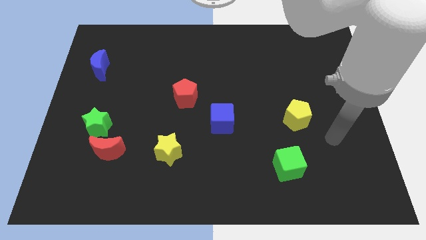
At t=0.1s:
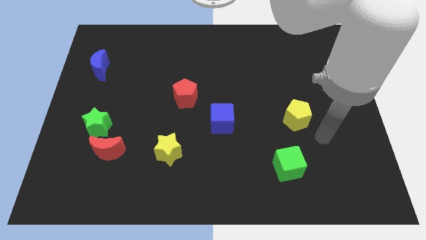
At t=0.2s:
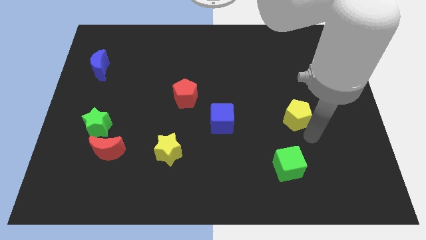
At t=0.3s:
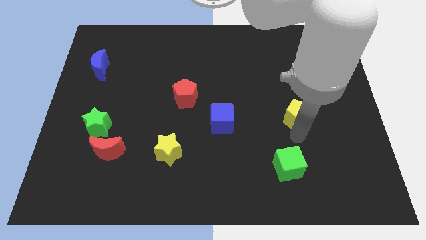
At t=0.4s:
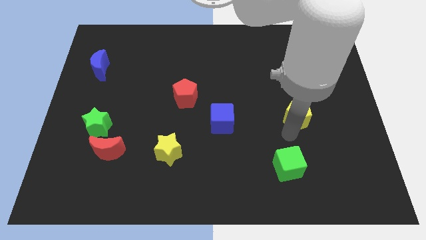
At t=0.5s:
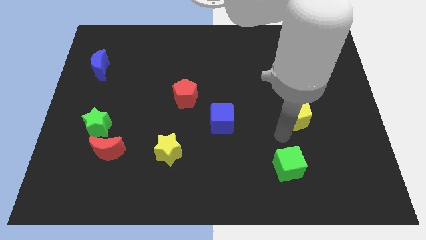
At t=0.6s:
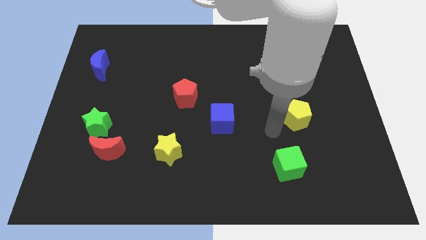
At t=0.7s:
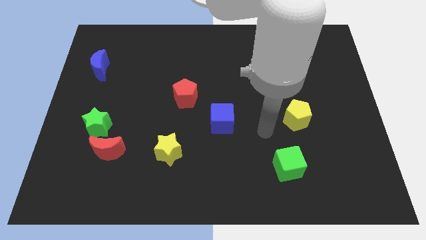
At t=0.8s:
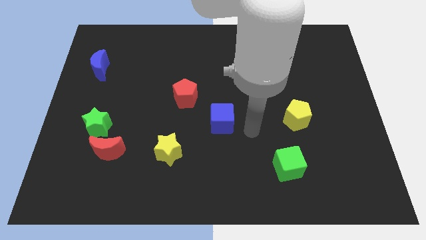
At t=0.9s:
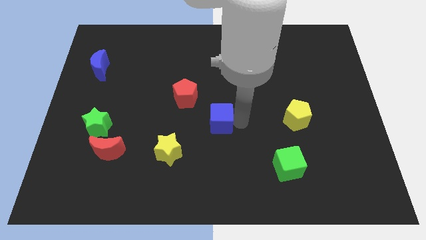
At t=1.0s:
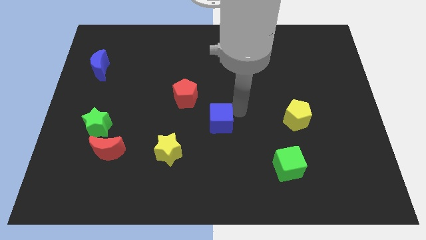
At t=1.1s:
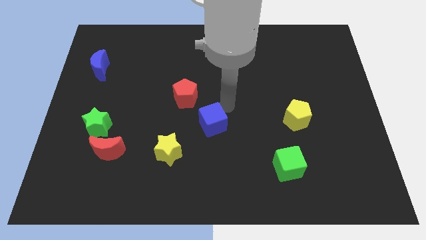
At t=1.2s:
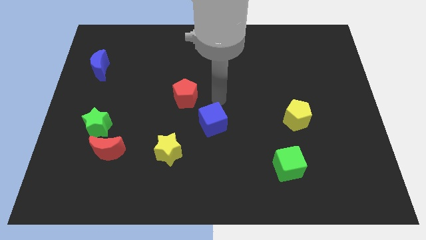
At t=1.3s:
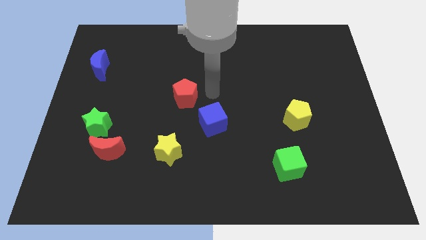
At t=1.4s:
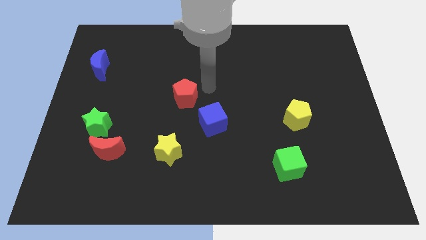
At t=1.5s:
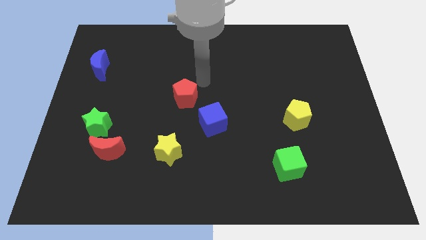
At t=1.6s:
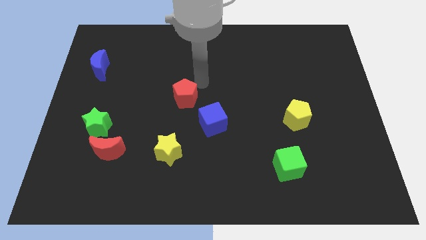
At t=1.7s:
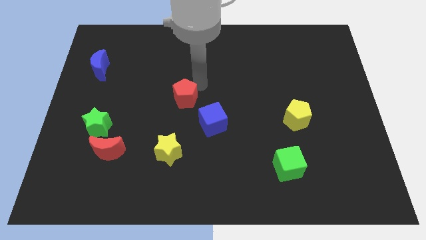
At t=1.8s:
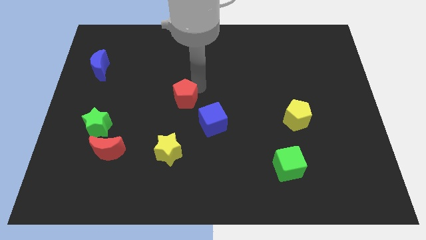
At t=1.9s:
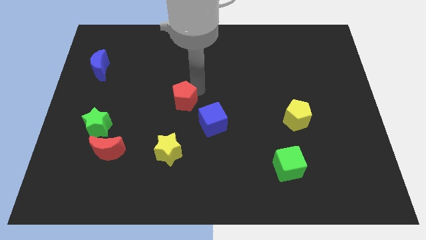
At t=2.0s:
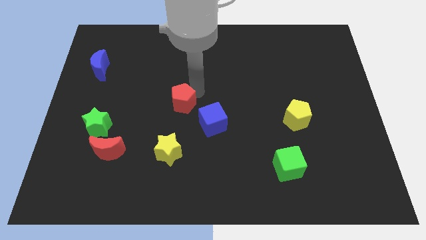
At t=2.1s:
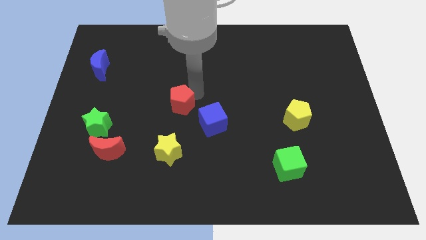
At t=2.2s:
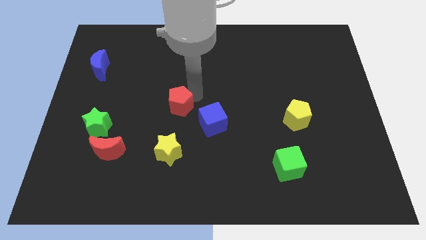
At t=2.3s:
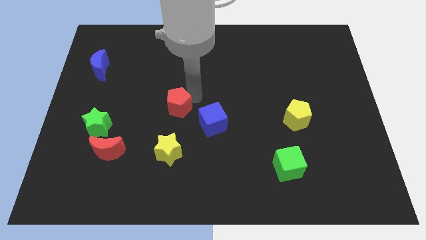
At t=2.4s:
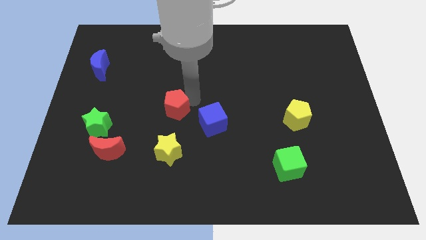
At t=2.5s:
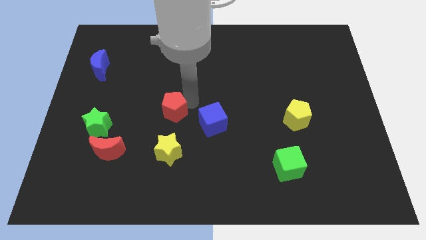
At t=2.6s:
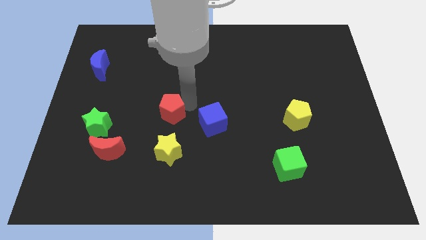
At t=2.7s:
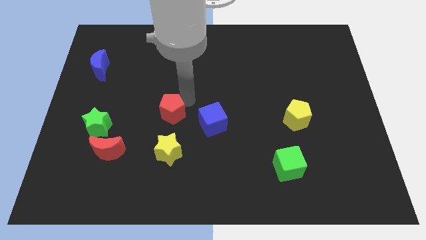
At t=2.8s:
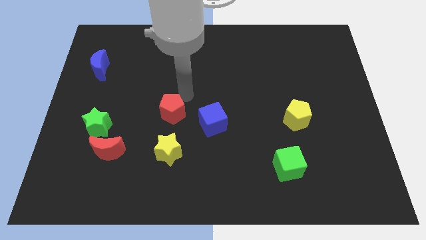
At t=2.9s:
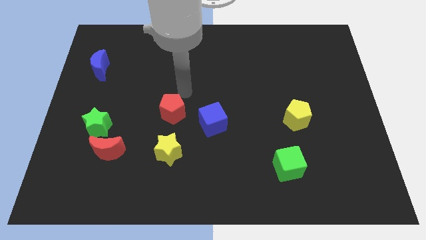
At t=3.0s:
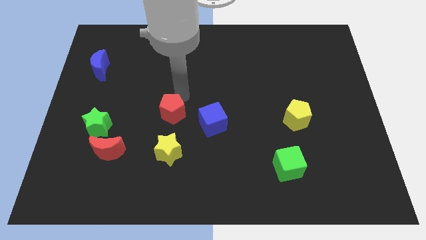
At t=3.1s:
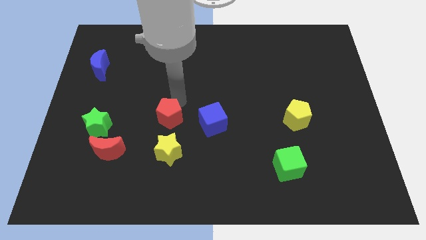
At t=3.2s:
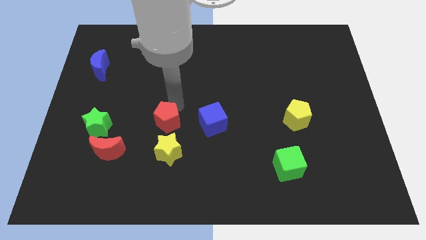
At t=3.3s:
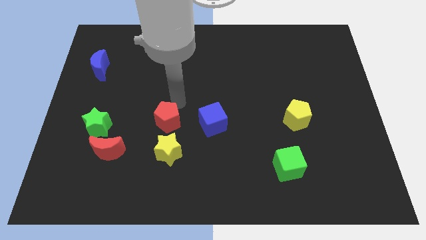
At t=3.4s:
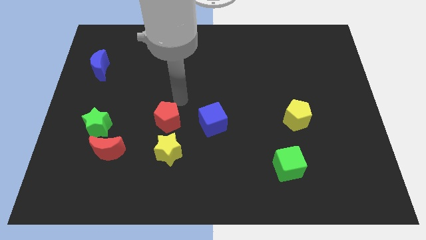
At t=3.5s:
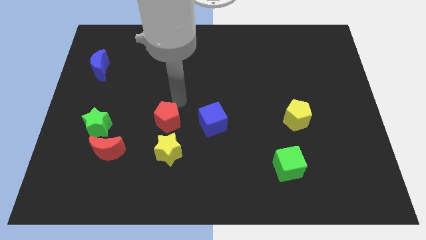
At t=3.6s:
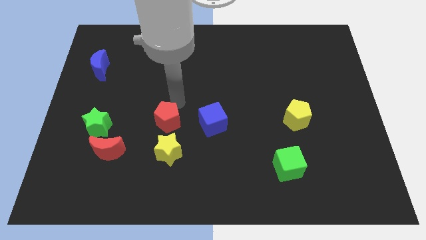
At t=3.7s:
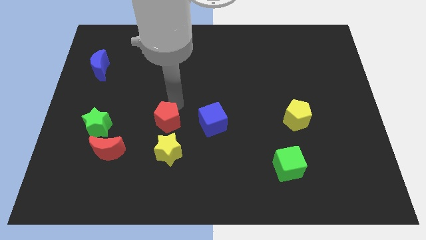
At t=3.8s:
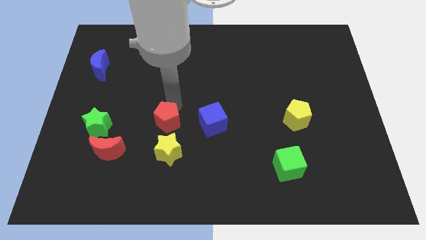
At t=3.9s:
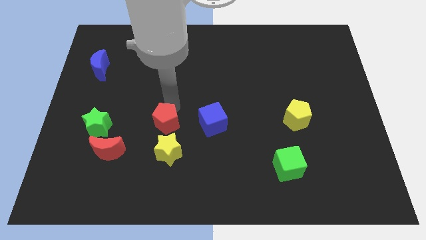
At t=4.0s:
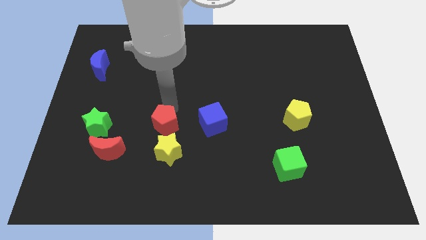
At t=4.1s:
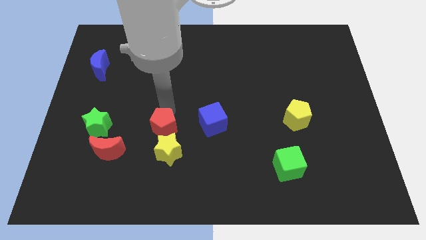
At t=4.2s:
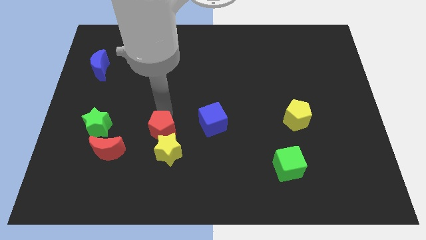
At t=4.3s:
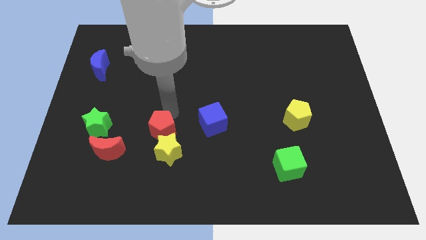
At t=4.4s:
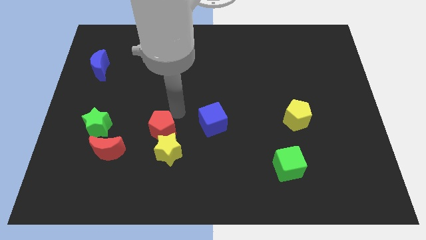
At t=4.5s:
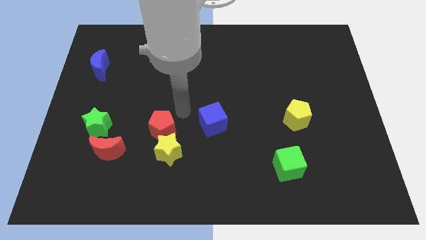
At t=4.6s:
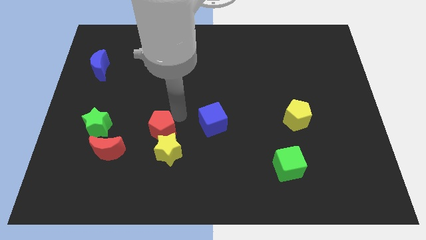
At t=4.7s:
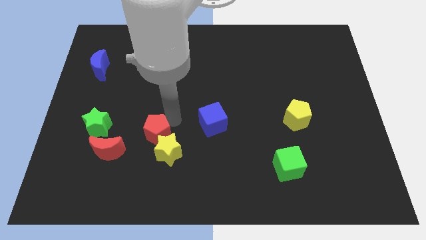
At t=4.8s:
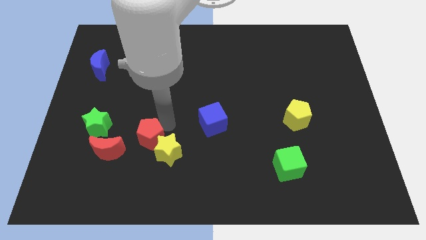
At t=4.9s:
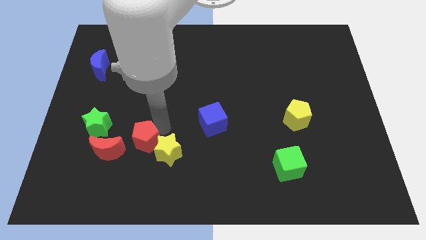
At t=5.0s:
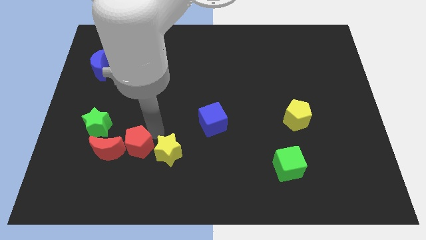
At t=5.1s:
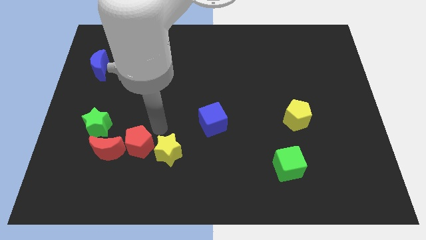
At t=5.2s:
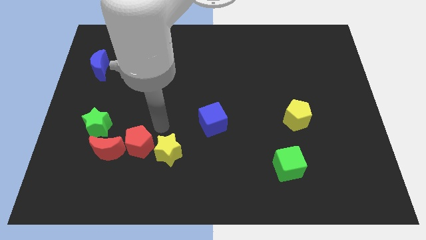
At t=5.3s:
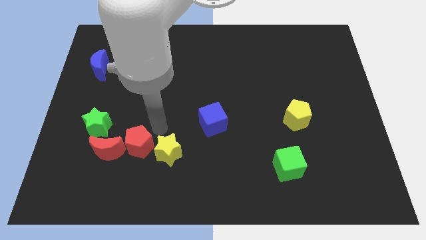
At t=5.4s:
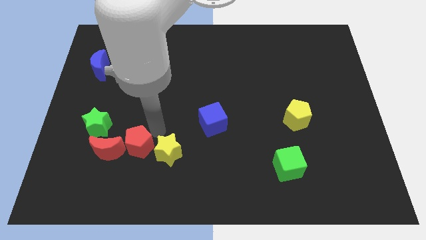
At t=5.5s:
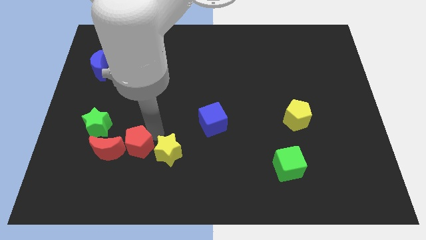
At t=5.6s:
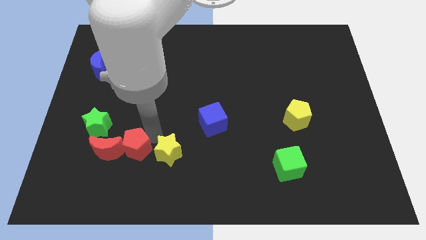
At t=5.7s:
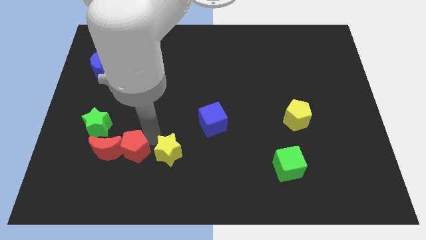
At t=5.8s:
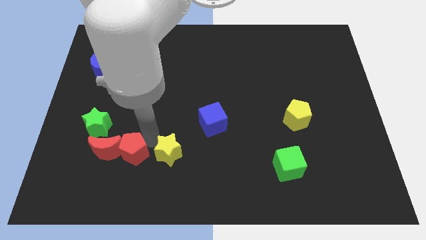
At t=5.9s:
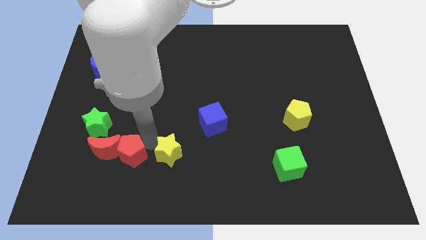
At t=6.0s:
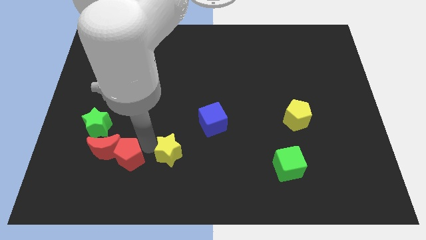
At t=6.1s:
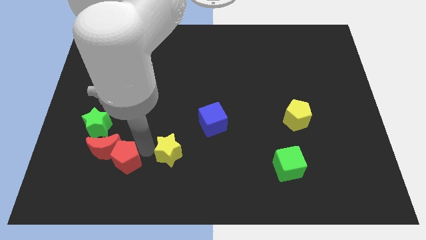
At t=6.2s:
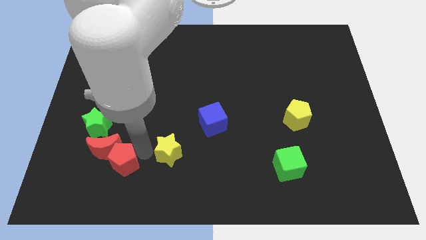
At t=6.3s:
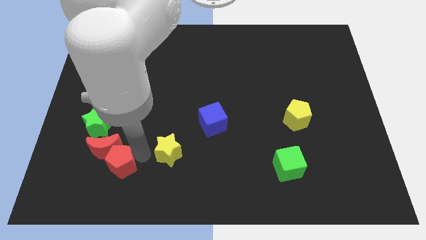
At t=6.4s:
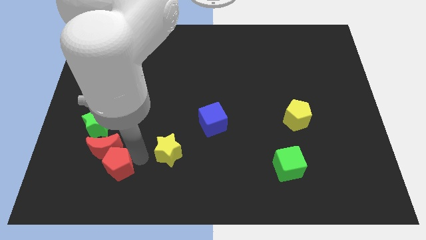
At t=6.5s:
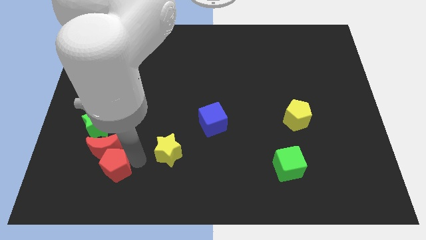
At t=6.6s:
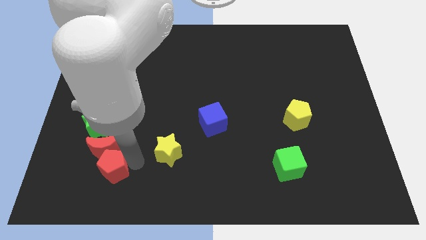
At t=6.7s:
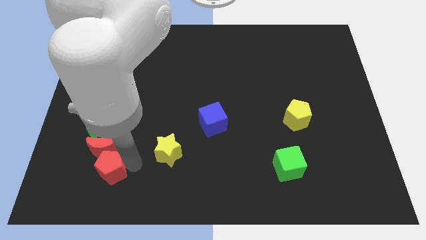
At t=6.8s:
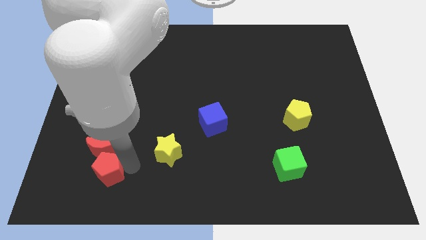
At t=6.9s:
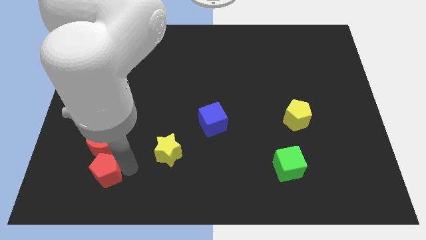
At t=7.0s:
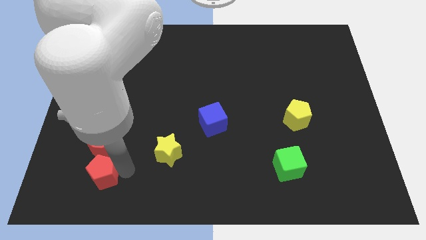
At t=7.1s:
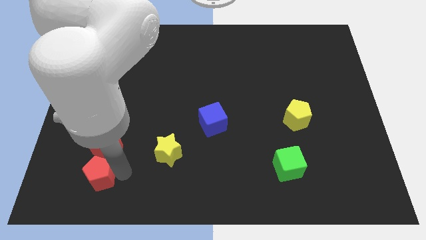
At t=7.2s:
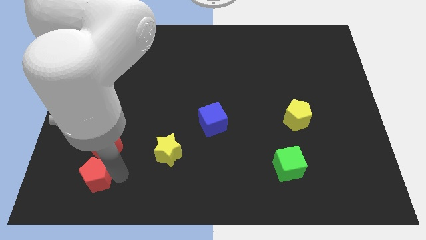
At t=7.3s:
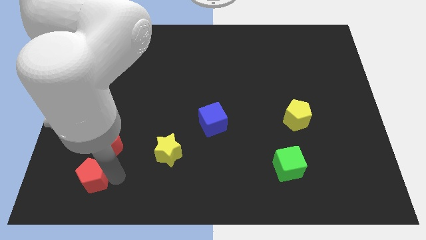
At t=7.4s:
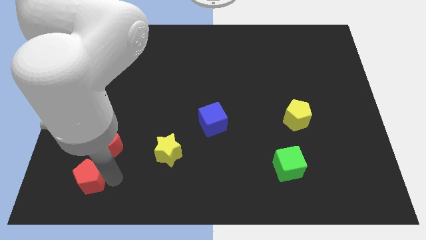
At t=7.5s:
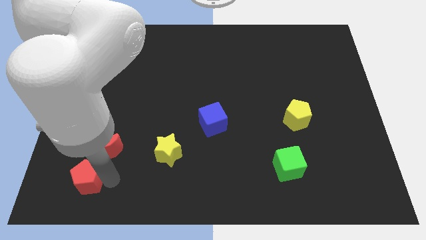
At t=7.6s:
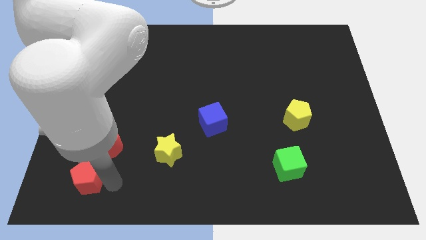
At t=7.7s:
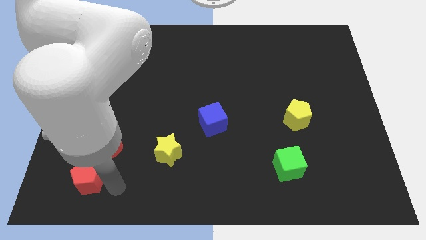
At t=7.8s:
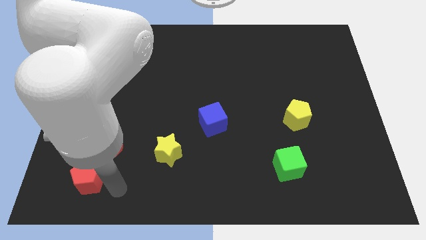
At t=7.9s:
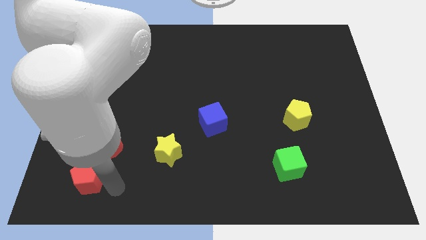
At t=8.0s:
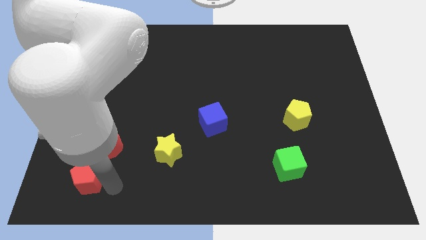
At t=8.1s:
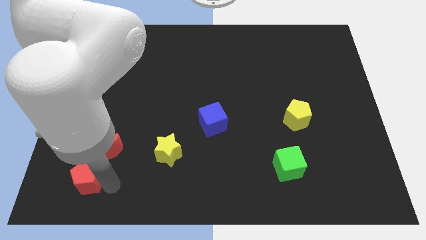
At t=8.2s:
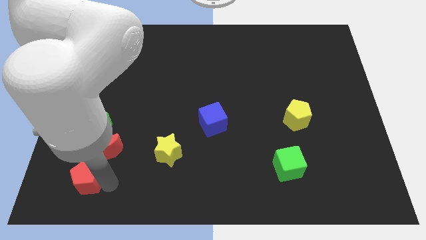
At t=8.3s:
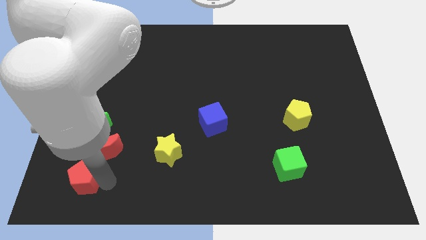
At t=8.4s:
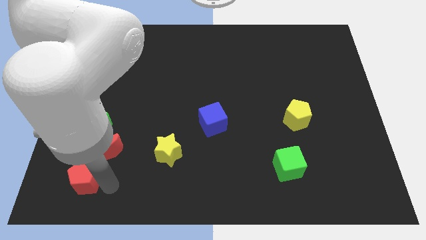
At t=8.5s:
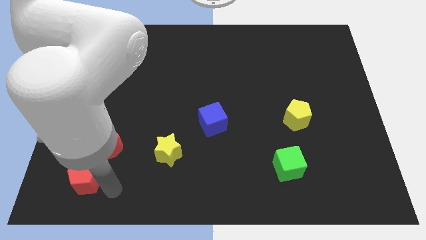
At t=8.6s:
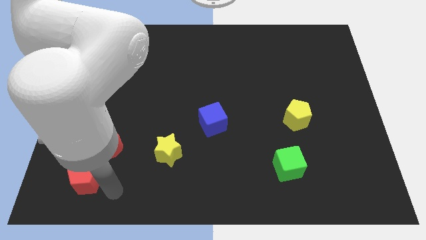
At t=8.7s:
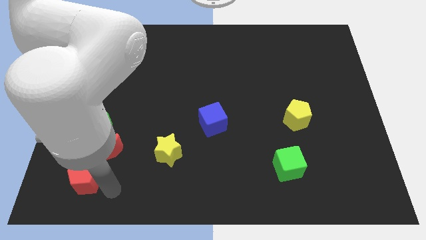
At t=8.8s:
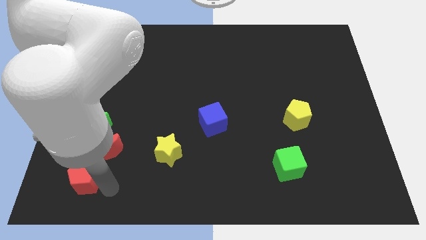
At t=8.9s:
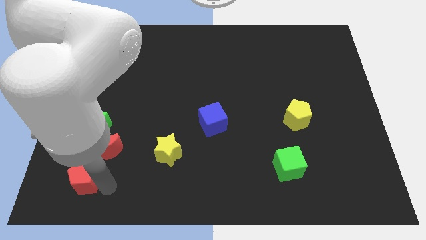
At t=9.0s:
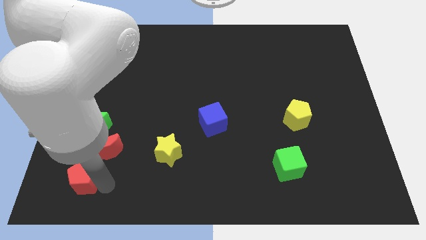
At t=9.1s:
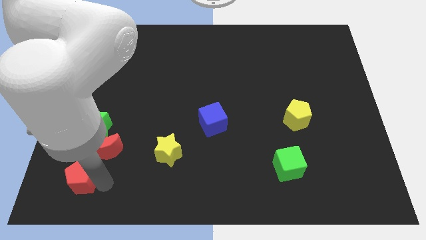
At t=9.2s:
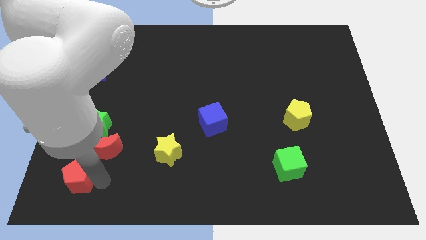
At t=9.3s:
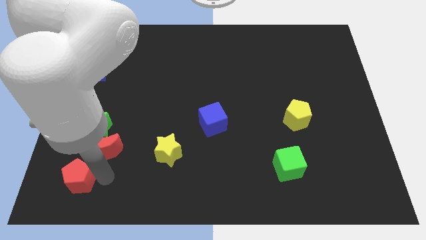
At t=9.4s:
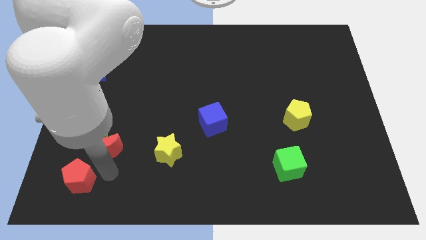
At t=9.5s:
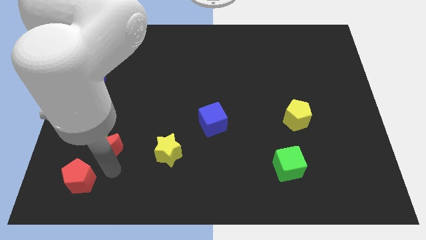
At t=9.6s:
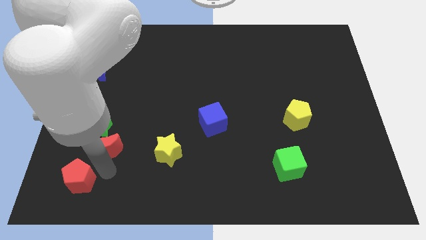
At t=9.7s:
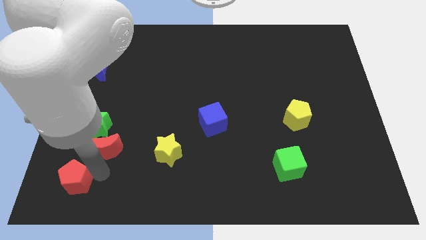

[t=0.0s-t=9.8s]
push the red pentagon to the bottom left
